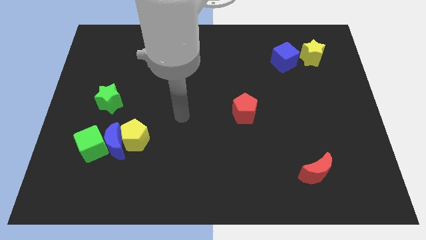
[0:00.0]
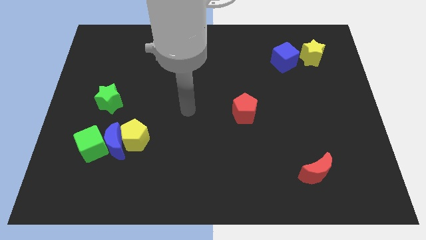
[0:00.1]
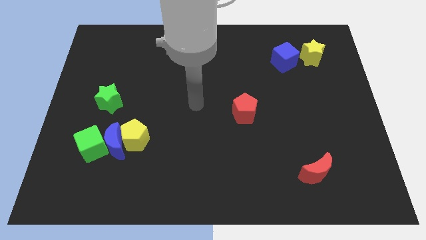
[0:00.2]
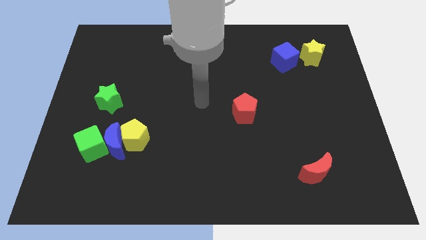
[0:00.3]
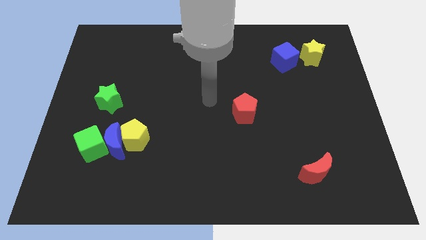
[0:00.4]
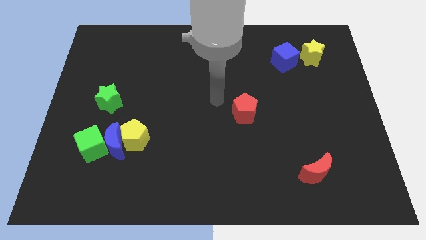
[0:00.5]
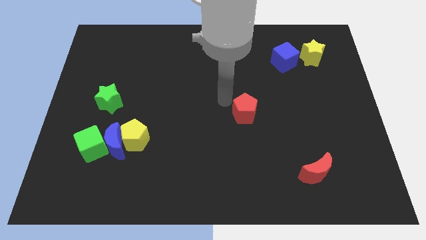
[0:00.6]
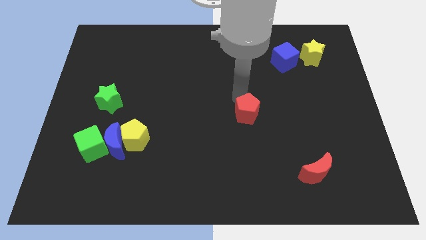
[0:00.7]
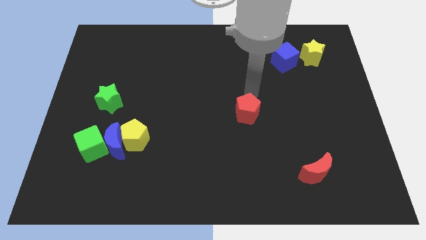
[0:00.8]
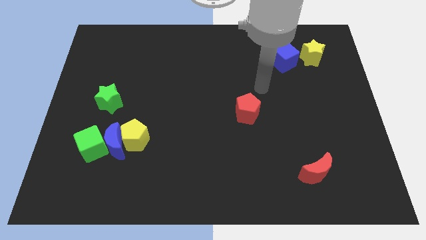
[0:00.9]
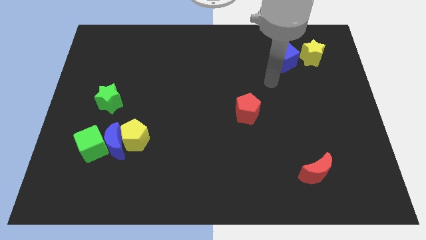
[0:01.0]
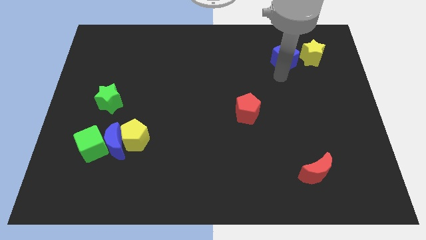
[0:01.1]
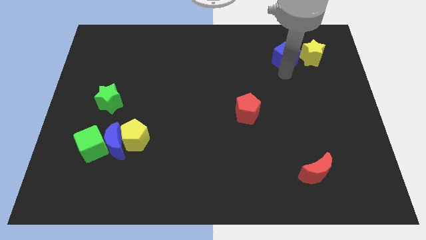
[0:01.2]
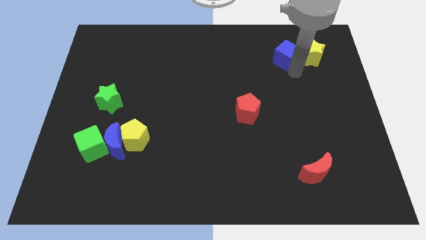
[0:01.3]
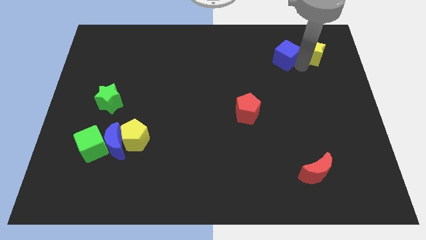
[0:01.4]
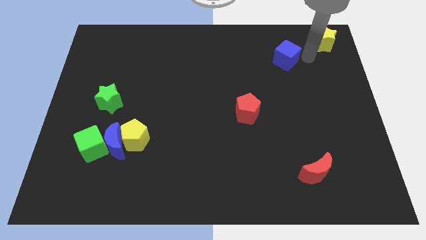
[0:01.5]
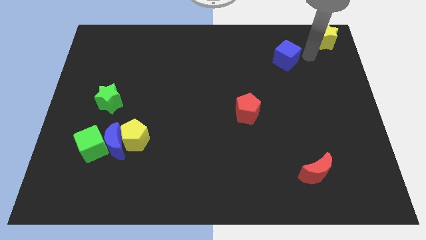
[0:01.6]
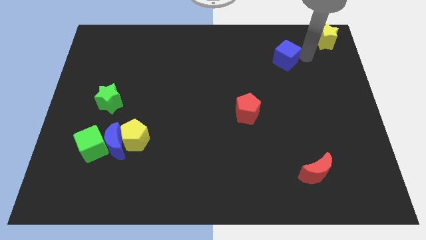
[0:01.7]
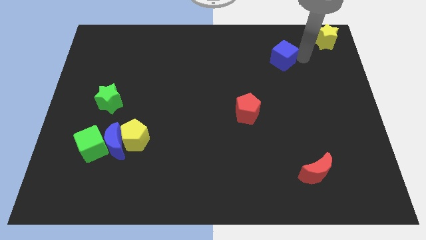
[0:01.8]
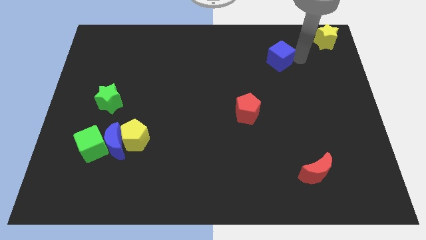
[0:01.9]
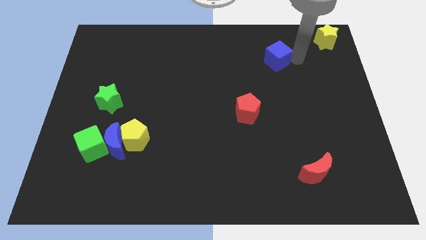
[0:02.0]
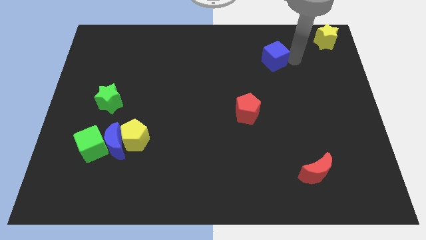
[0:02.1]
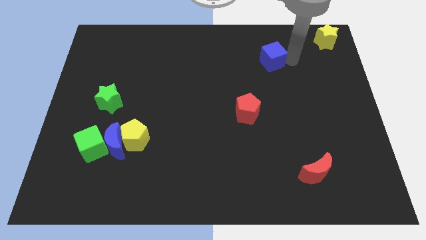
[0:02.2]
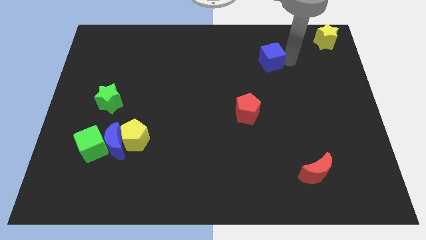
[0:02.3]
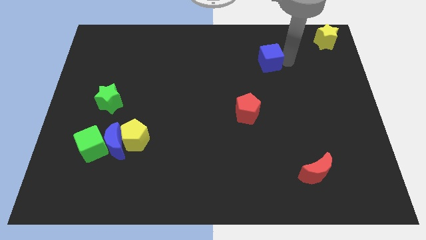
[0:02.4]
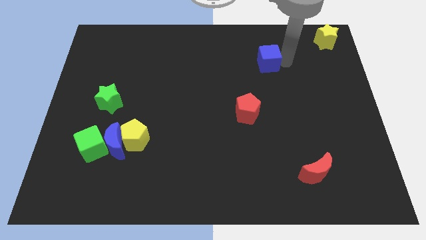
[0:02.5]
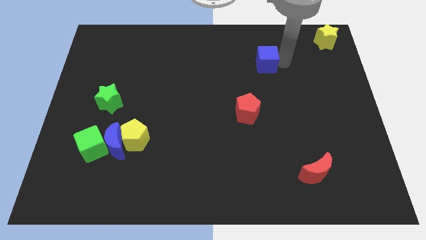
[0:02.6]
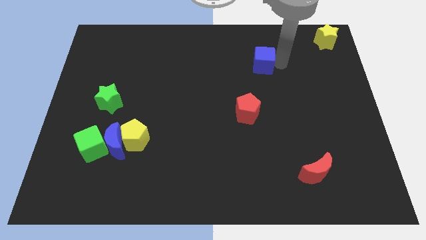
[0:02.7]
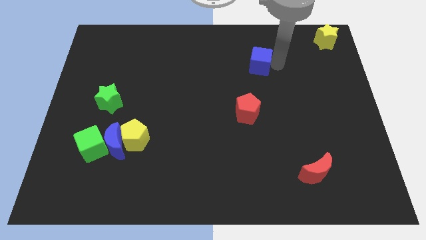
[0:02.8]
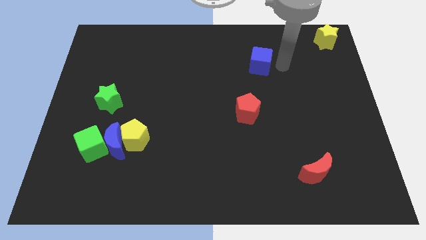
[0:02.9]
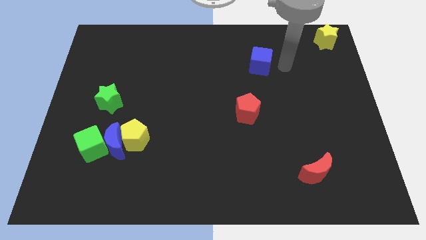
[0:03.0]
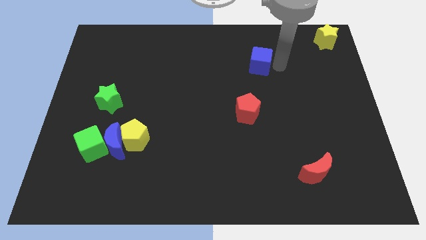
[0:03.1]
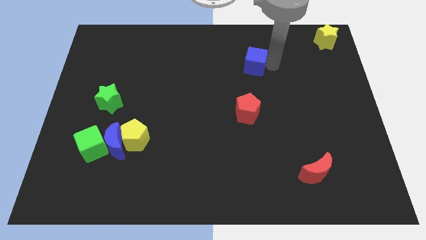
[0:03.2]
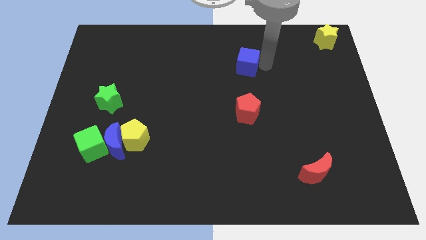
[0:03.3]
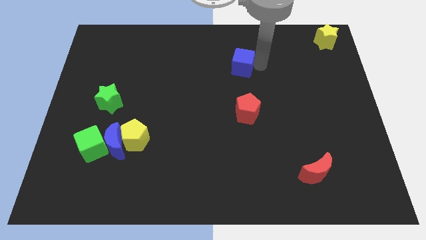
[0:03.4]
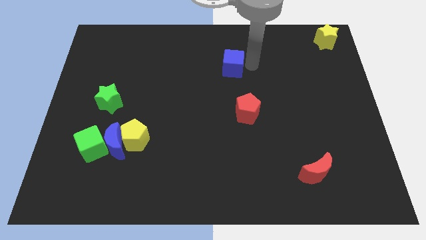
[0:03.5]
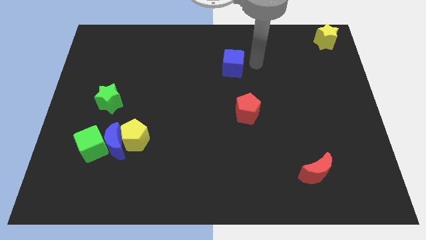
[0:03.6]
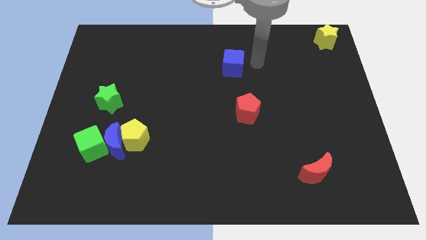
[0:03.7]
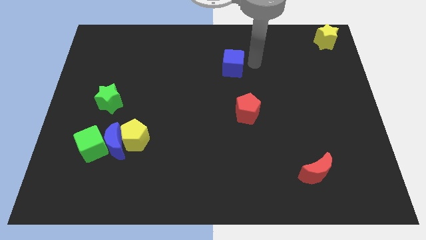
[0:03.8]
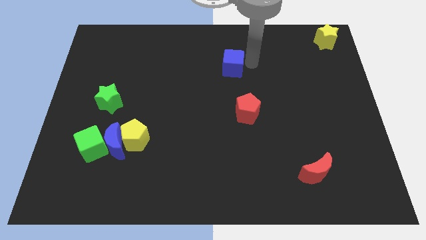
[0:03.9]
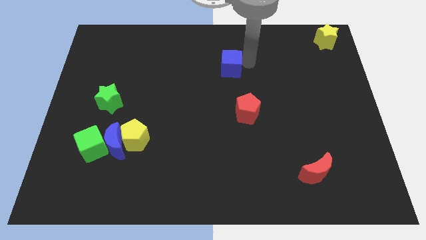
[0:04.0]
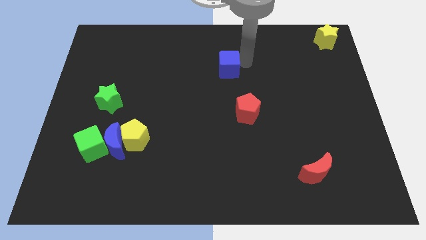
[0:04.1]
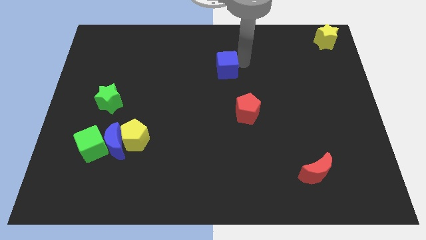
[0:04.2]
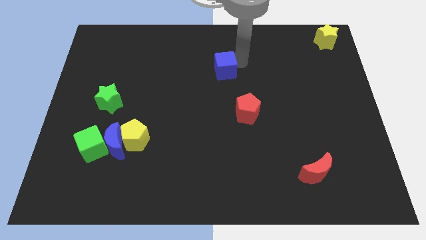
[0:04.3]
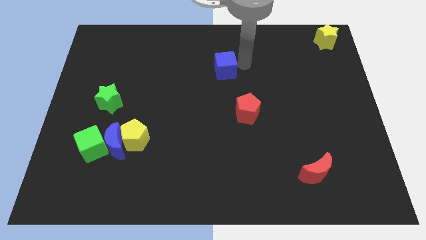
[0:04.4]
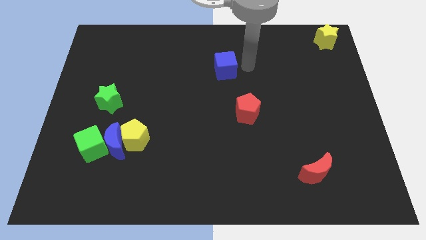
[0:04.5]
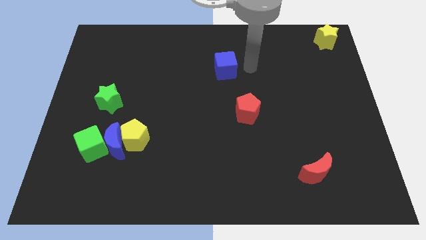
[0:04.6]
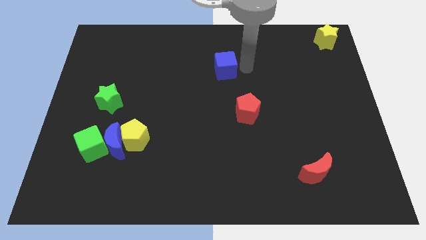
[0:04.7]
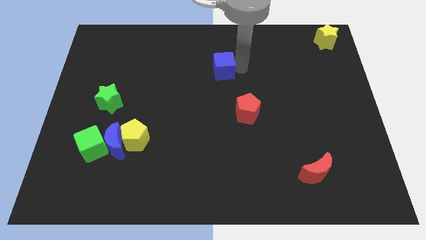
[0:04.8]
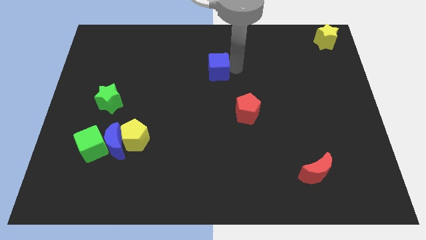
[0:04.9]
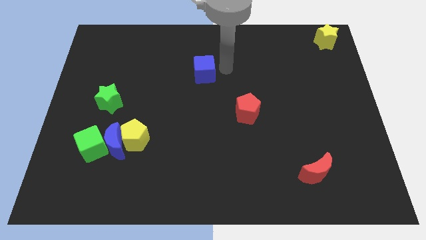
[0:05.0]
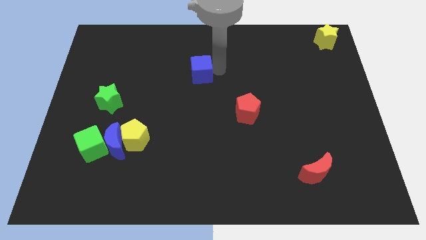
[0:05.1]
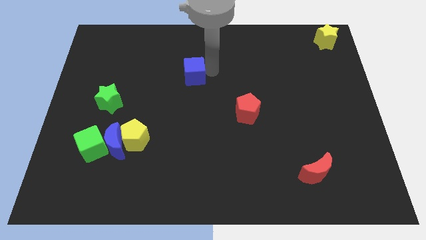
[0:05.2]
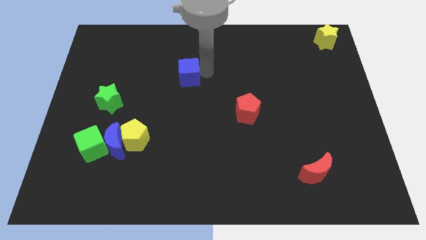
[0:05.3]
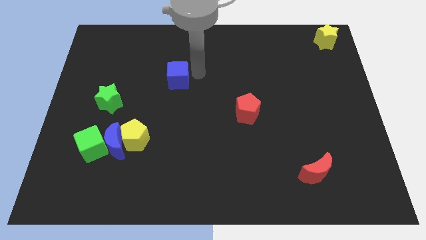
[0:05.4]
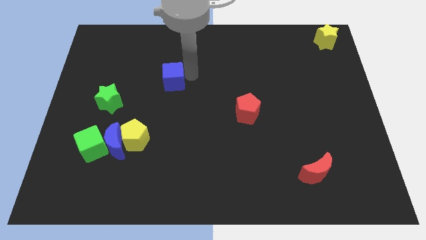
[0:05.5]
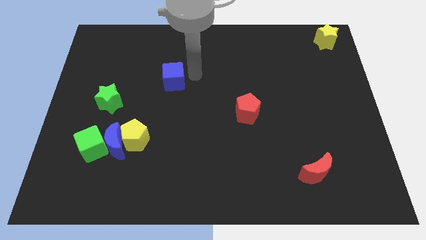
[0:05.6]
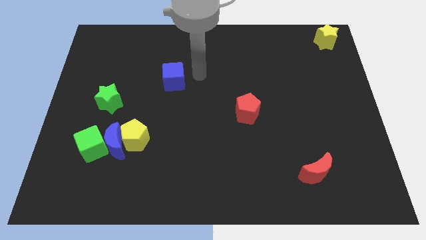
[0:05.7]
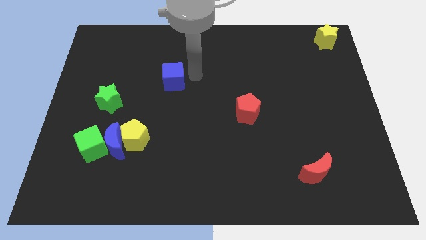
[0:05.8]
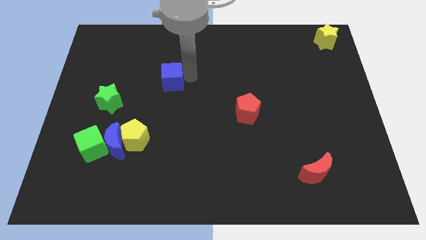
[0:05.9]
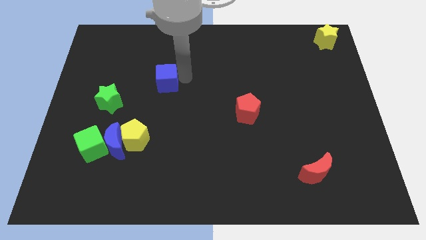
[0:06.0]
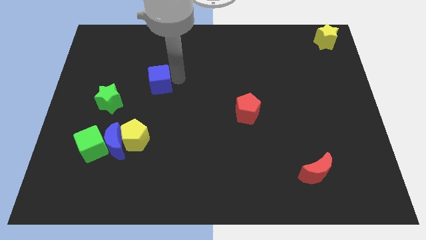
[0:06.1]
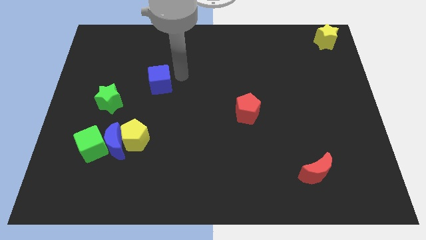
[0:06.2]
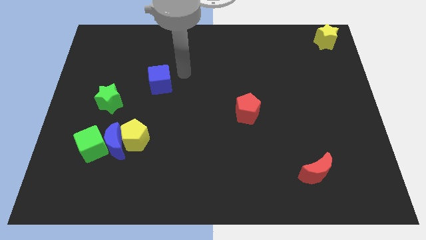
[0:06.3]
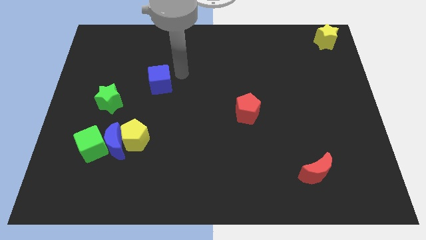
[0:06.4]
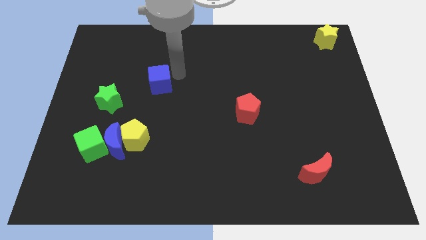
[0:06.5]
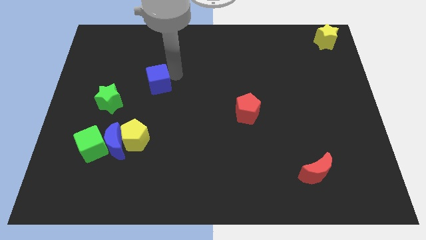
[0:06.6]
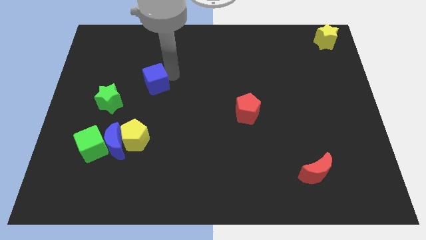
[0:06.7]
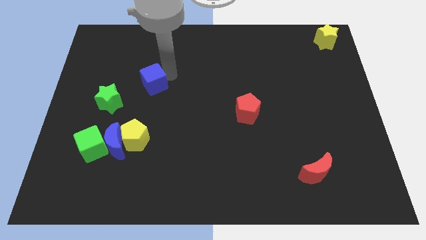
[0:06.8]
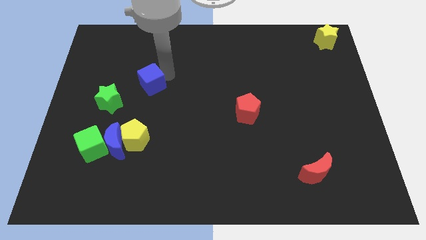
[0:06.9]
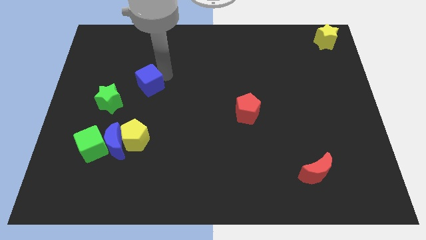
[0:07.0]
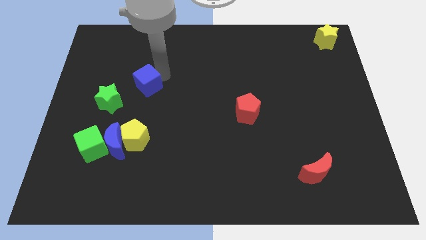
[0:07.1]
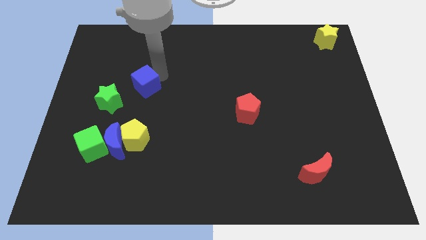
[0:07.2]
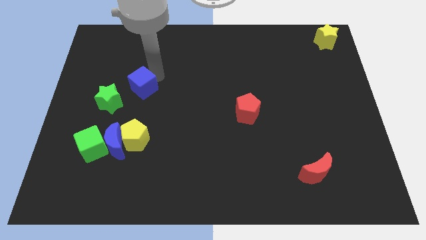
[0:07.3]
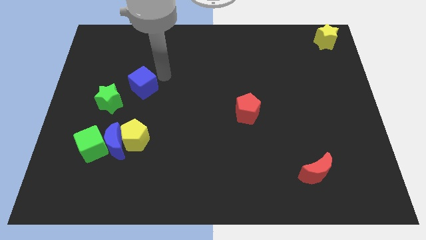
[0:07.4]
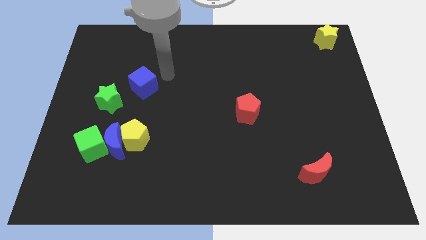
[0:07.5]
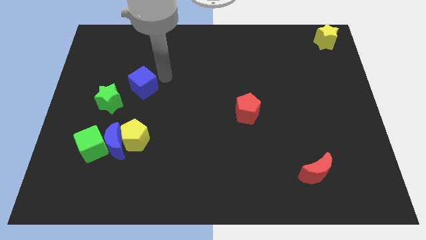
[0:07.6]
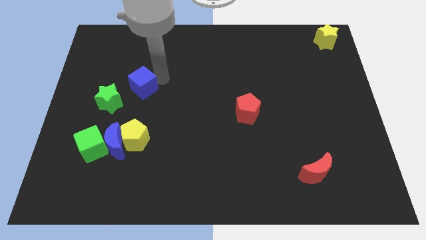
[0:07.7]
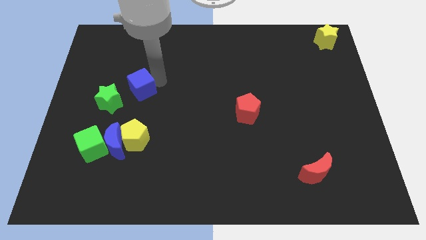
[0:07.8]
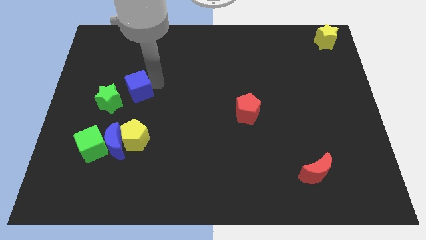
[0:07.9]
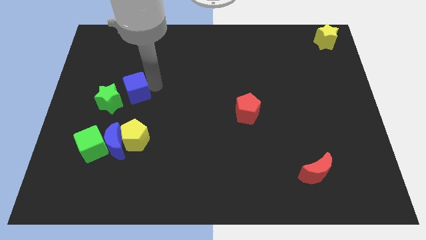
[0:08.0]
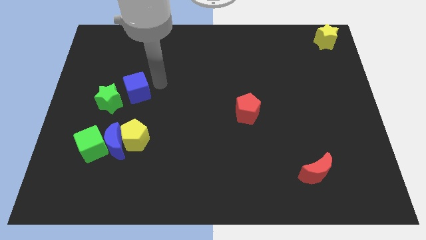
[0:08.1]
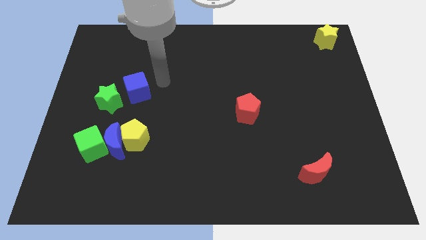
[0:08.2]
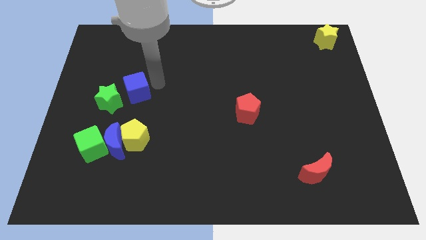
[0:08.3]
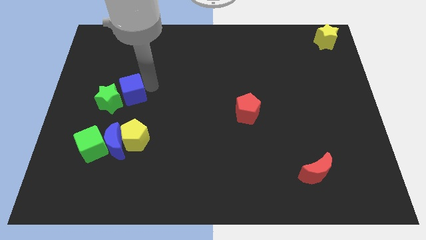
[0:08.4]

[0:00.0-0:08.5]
slide the blue cube towards the green star
